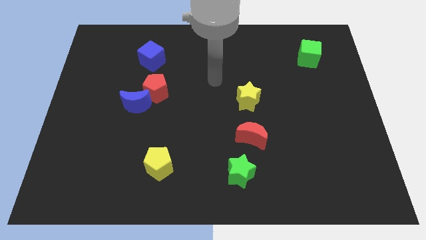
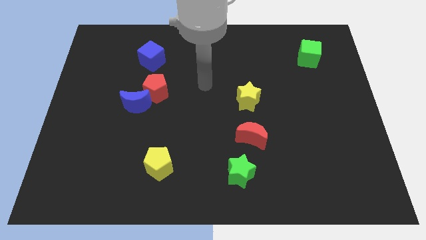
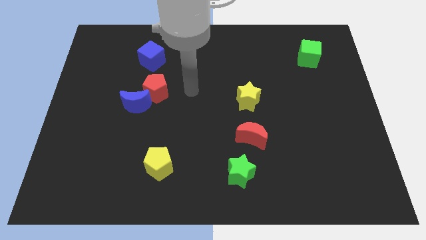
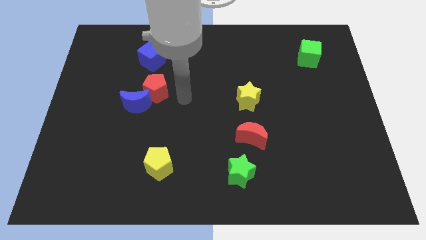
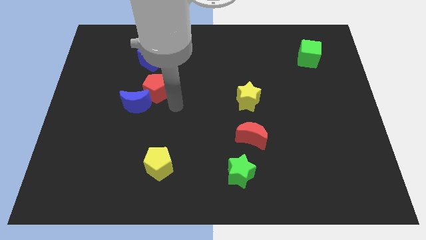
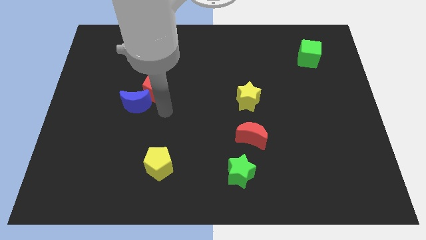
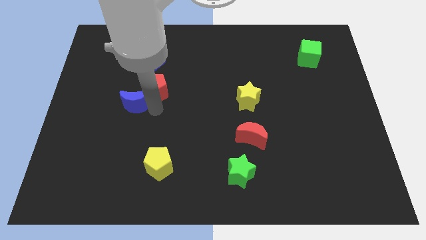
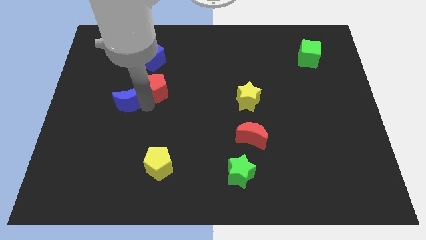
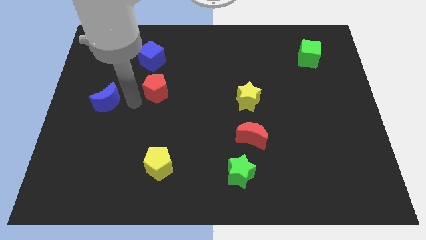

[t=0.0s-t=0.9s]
move the red pentagon away from the blue moon

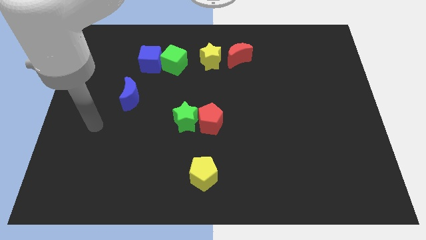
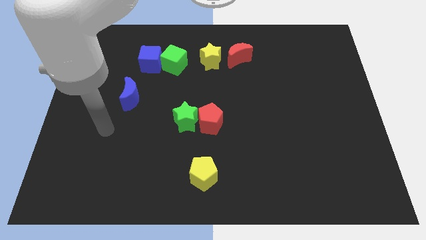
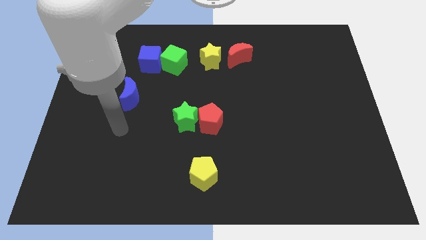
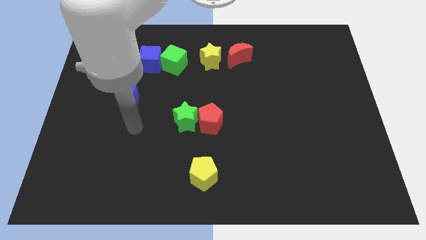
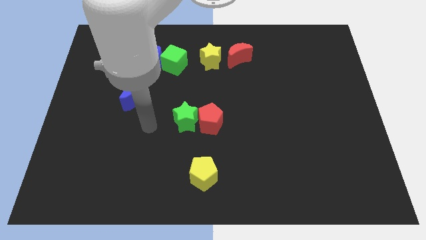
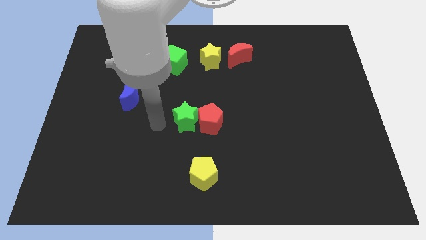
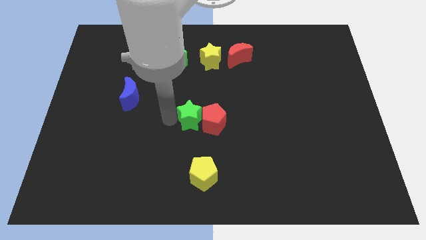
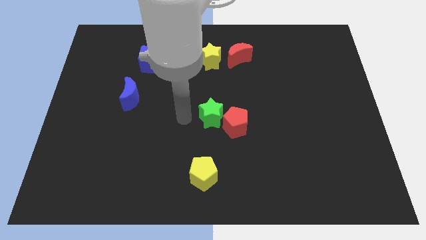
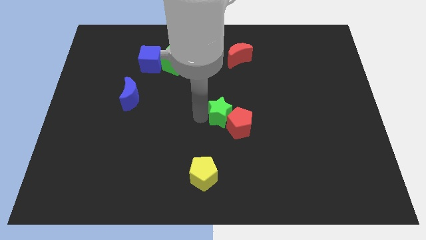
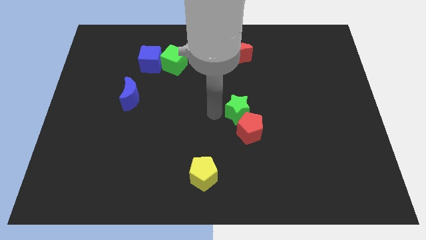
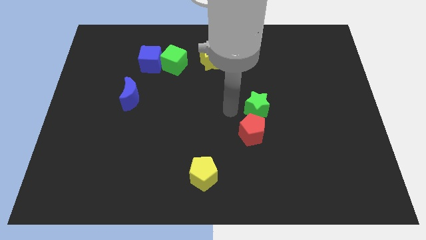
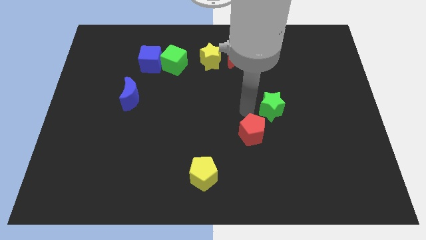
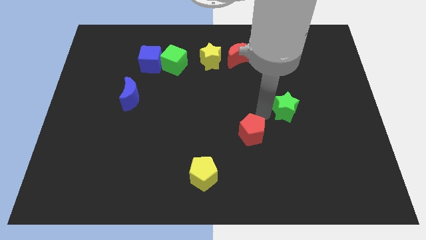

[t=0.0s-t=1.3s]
pull the red pentagon apart from the green star

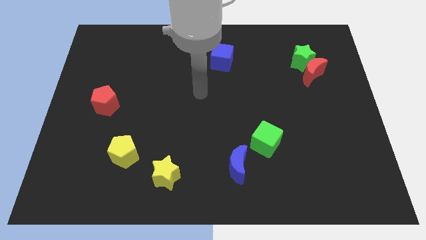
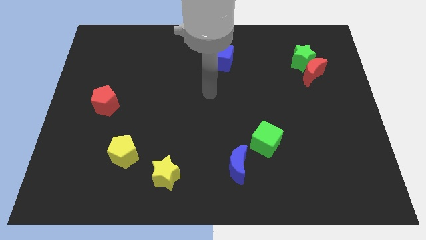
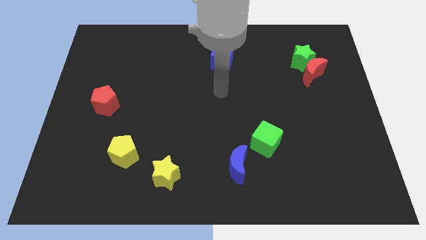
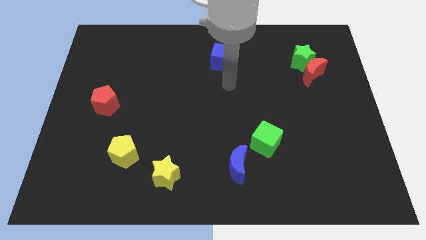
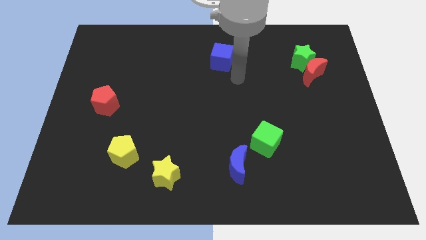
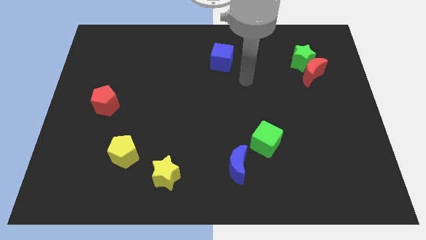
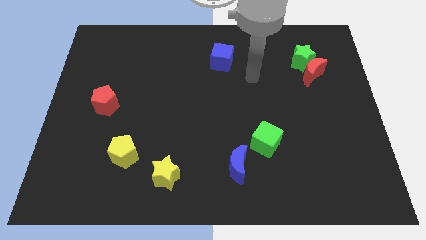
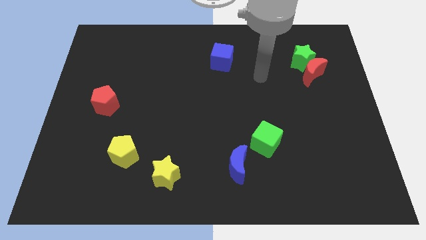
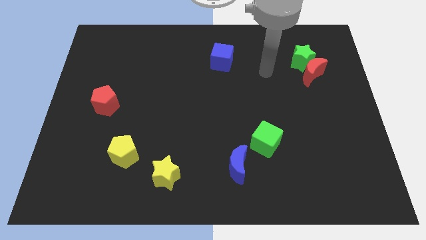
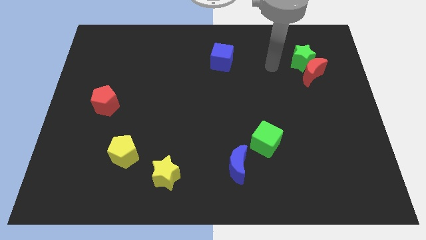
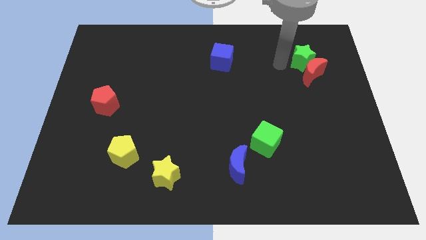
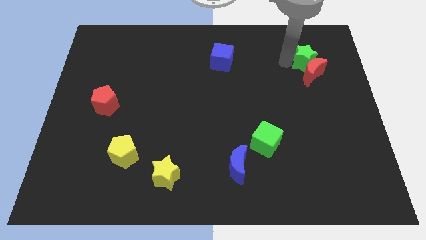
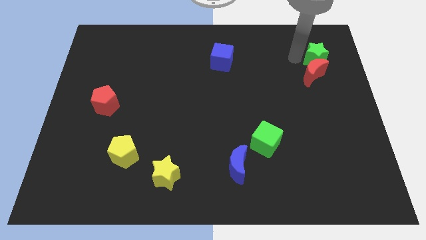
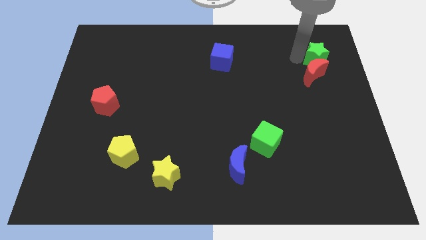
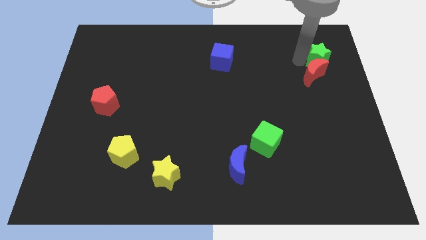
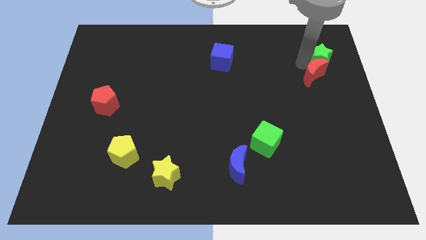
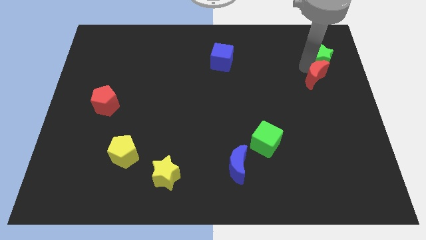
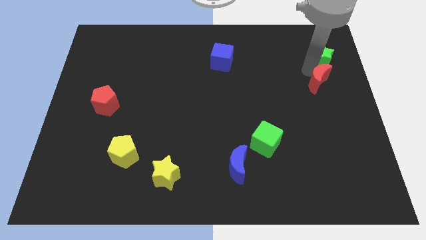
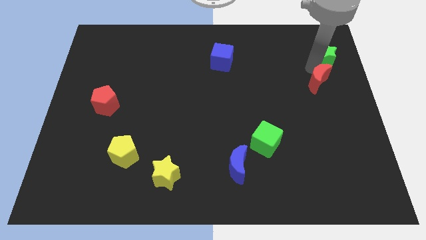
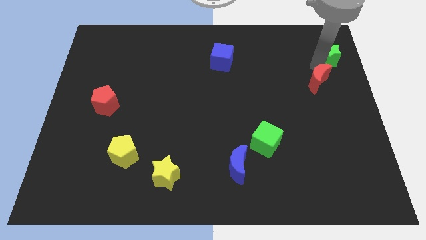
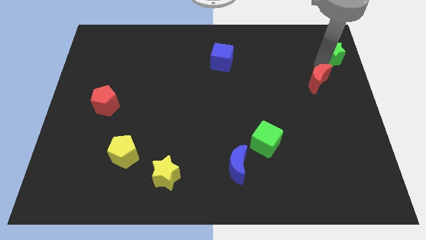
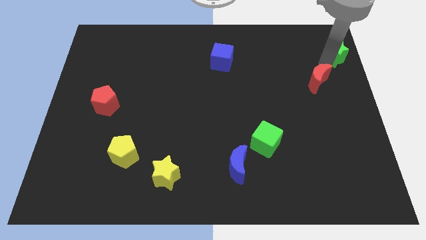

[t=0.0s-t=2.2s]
move the red moon away from the green star

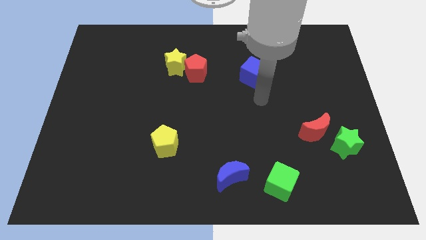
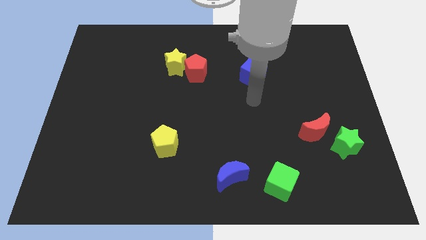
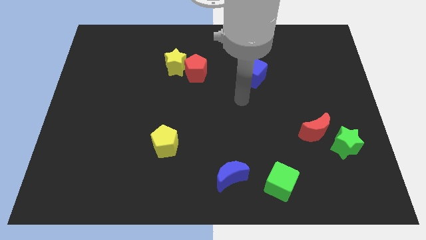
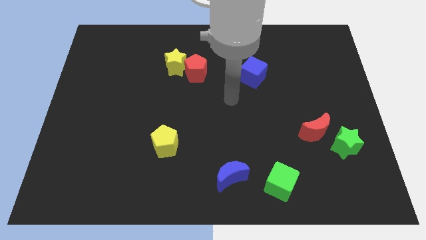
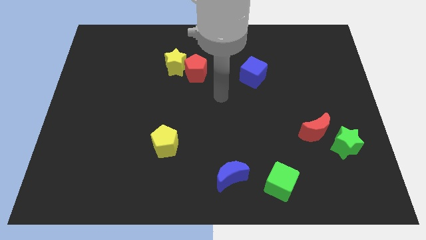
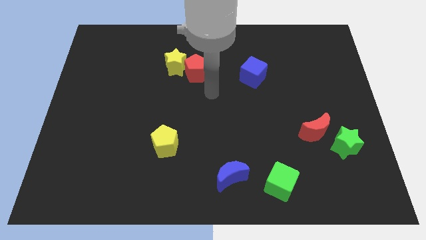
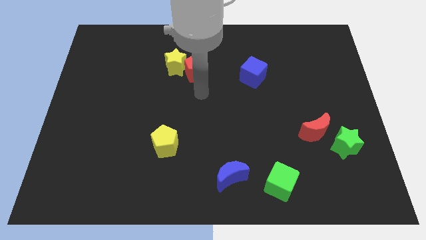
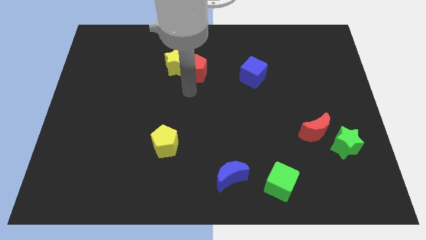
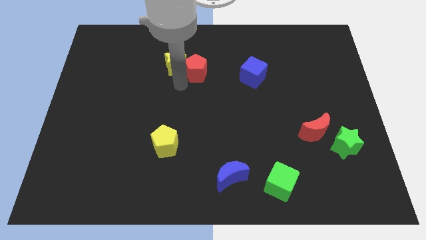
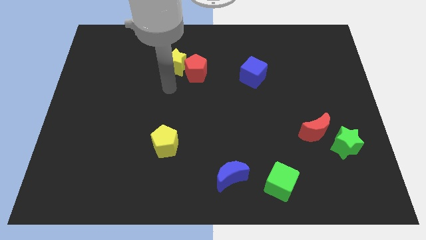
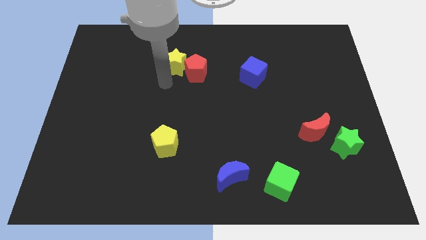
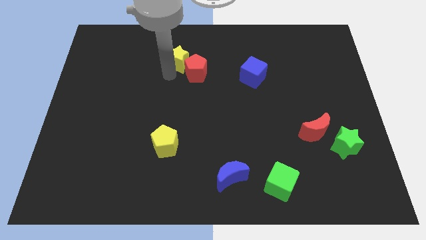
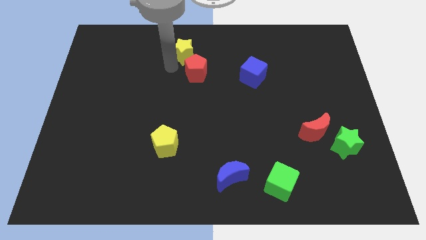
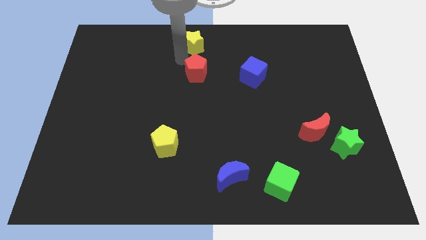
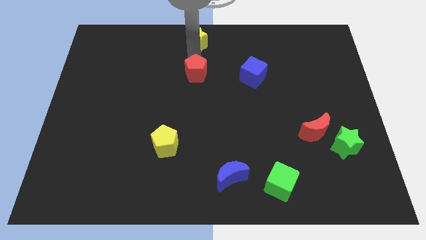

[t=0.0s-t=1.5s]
separate the red pentagon from the yellow star

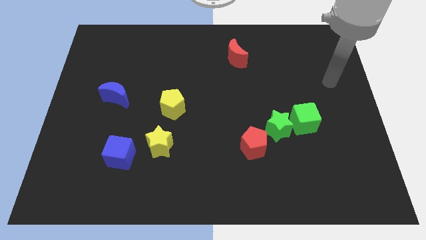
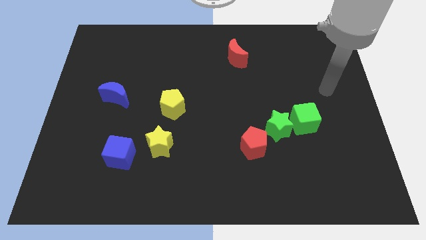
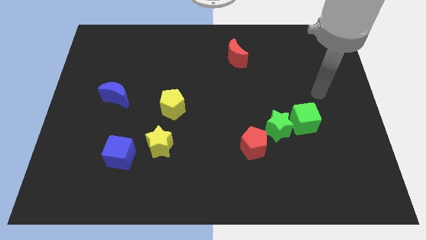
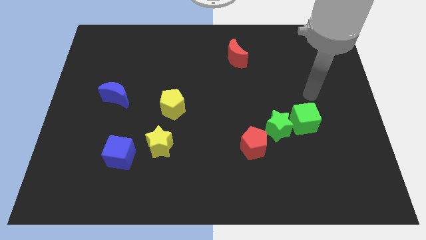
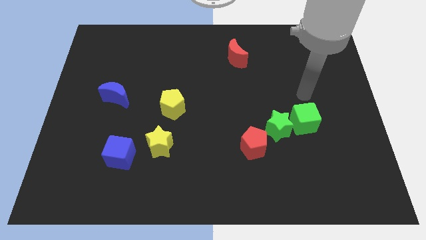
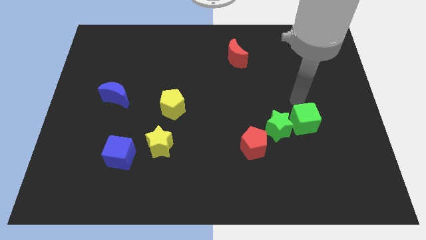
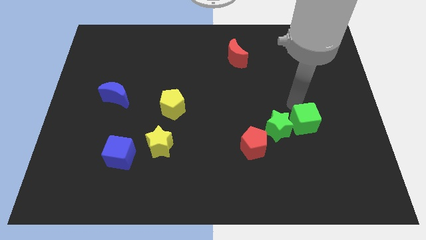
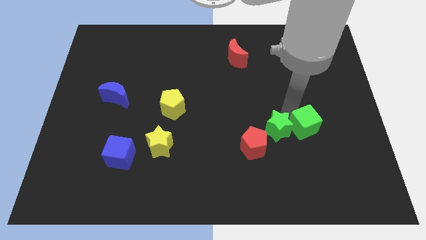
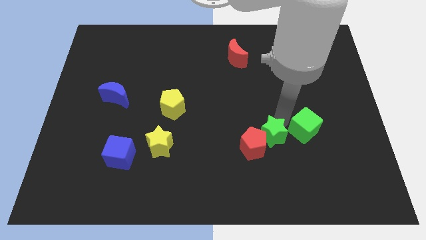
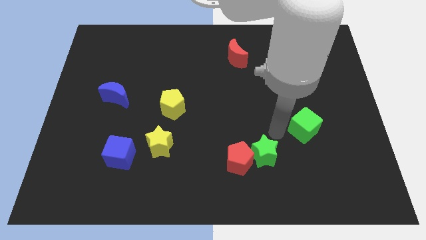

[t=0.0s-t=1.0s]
move the green cube away from the green star

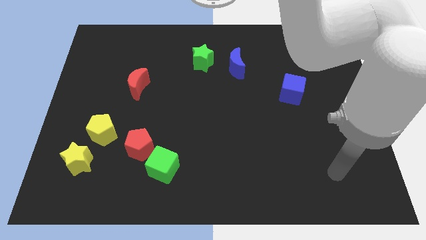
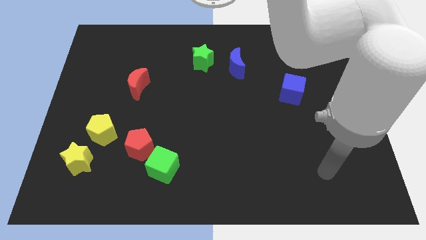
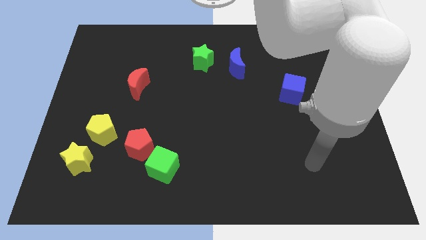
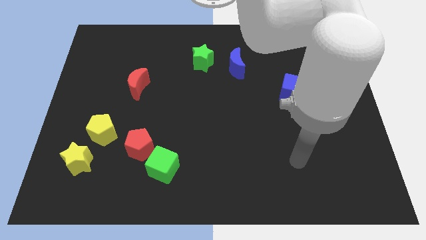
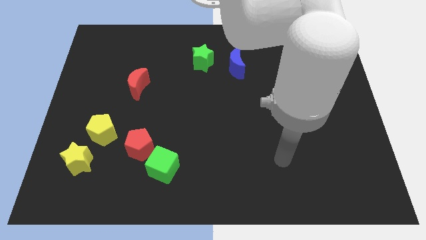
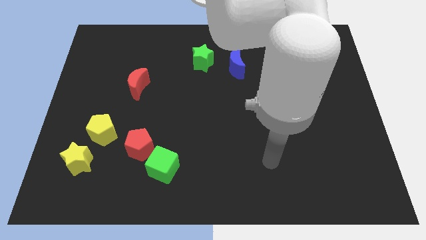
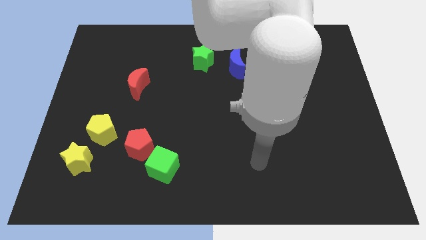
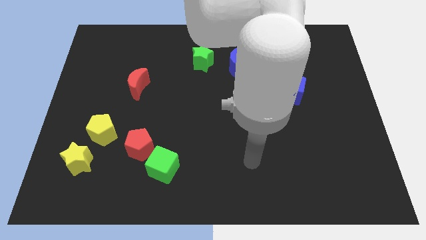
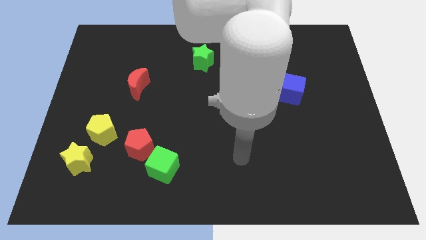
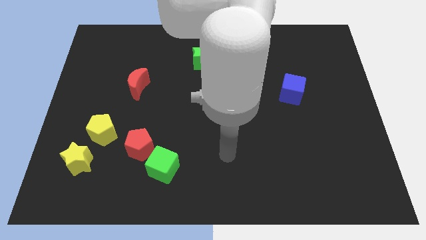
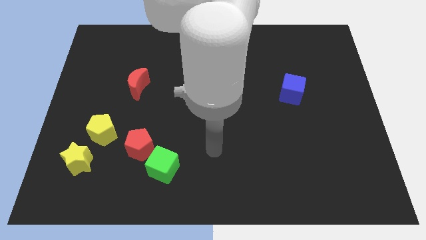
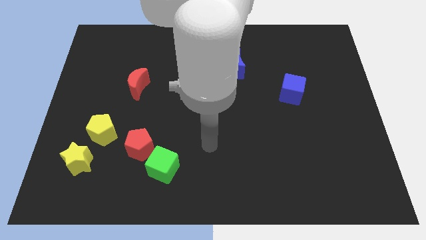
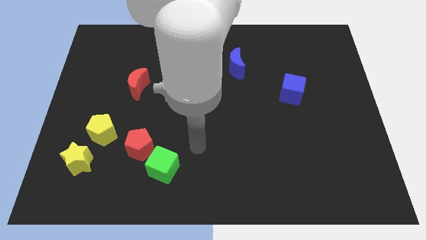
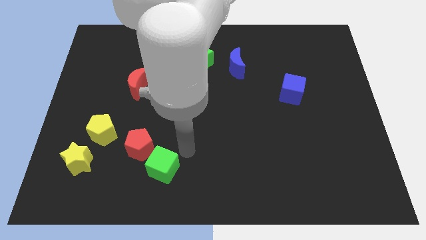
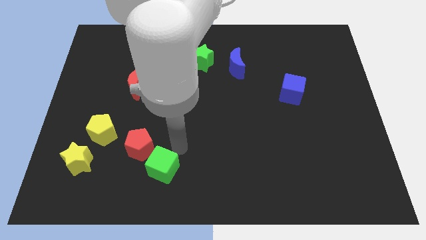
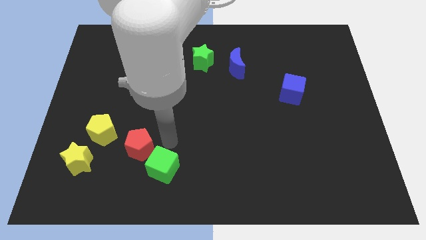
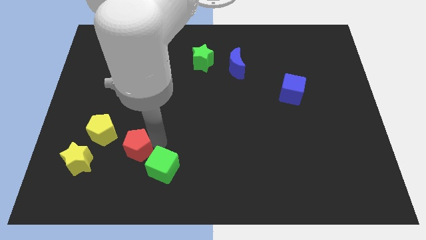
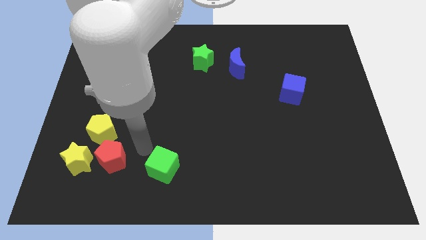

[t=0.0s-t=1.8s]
move the green cube away from the red pentagon

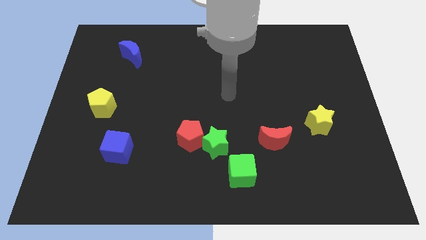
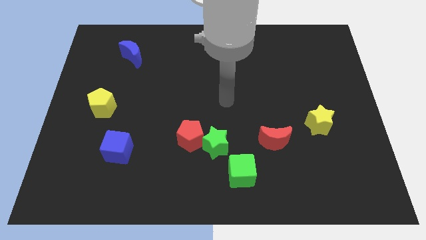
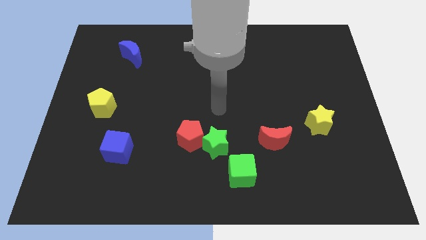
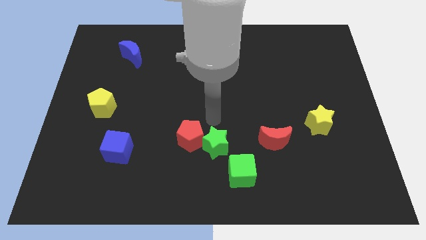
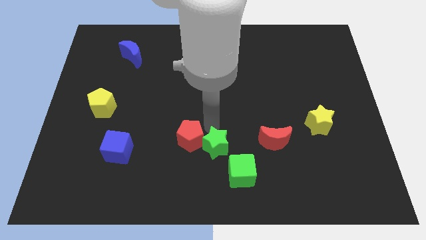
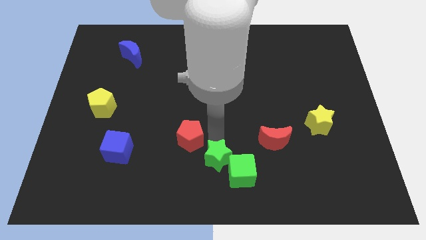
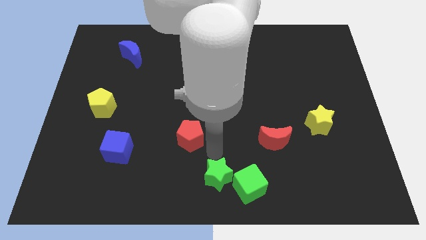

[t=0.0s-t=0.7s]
move the red pentagon away from the green star
